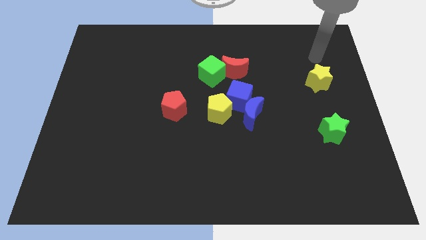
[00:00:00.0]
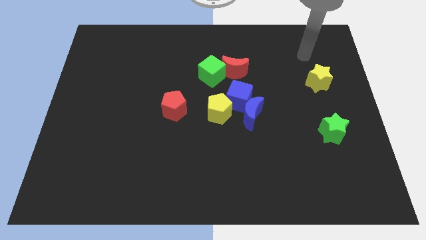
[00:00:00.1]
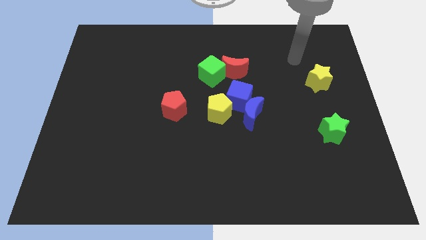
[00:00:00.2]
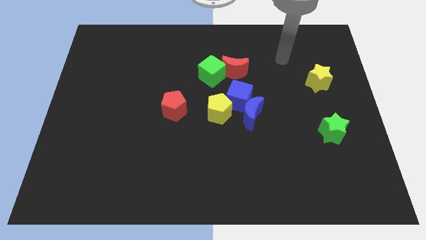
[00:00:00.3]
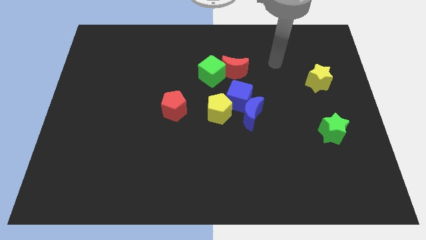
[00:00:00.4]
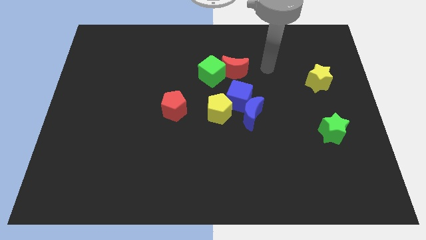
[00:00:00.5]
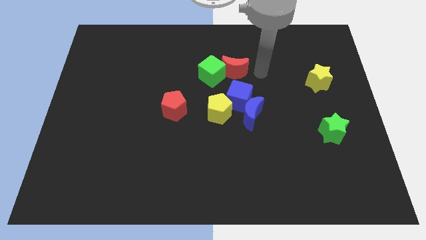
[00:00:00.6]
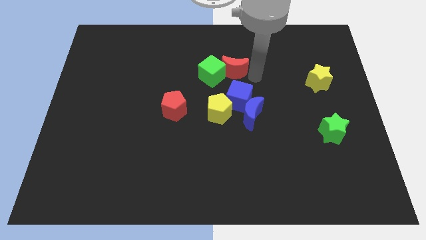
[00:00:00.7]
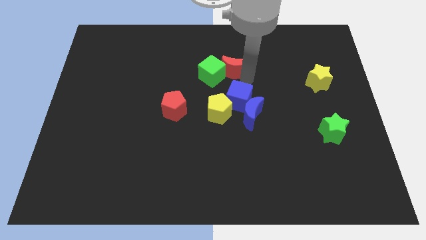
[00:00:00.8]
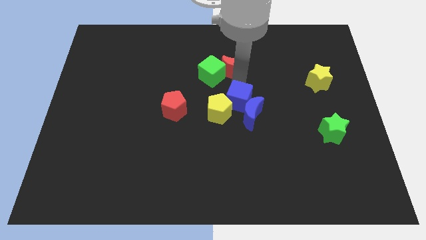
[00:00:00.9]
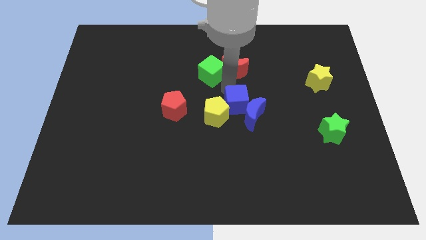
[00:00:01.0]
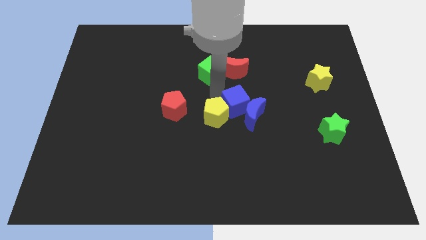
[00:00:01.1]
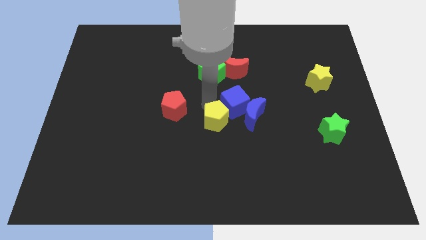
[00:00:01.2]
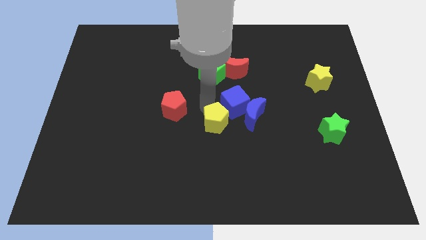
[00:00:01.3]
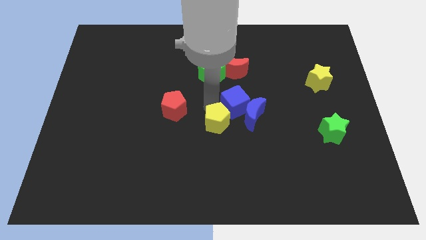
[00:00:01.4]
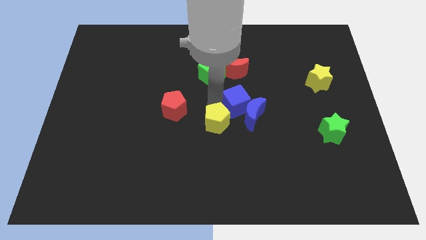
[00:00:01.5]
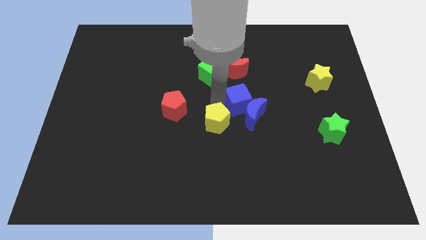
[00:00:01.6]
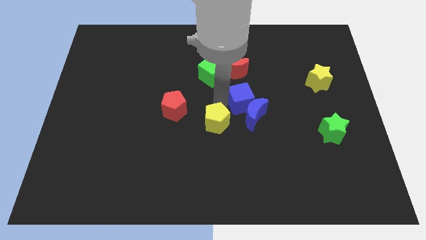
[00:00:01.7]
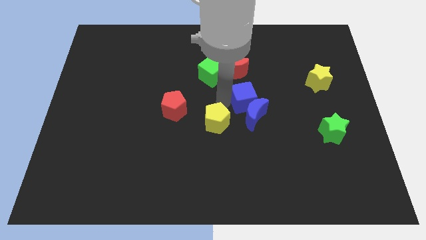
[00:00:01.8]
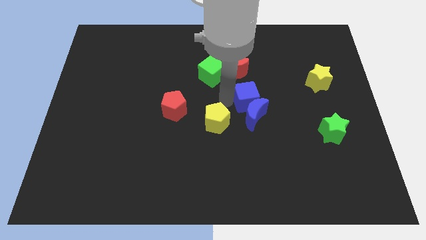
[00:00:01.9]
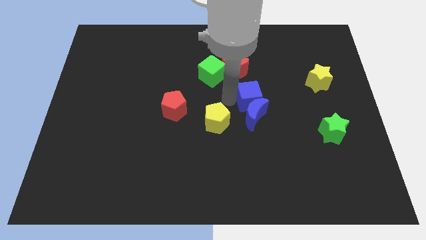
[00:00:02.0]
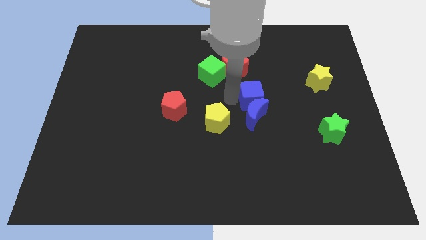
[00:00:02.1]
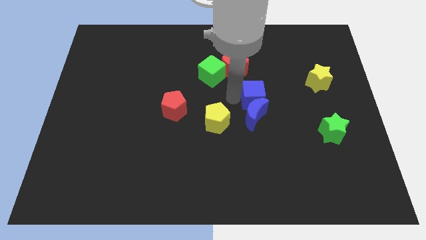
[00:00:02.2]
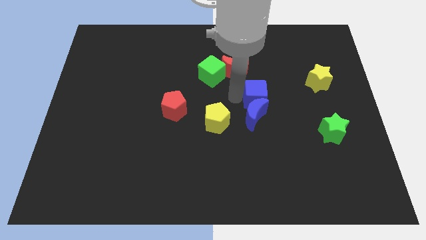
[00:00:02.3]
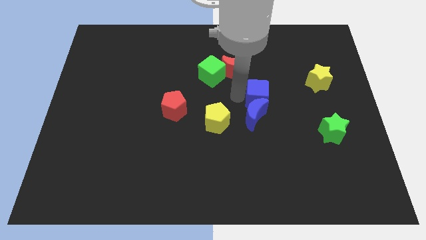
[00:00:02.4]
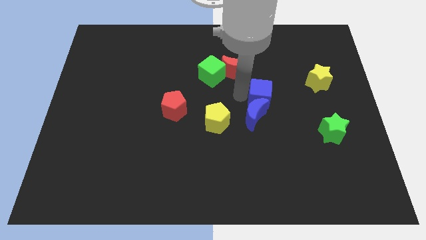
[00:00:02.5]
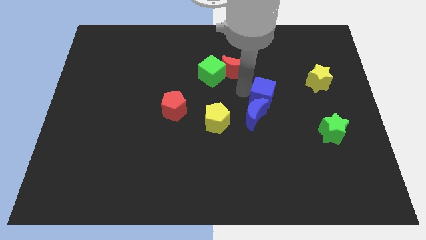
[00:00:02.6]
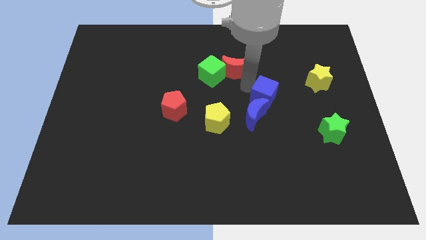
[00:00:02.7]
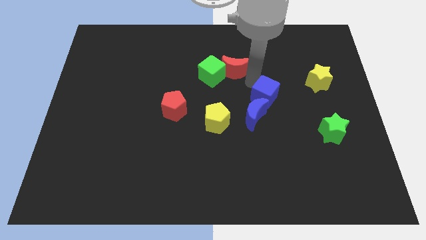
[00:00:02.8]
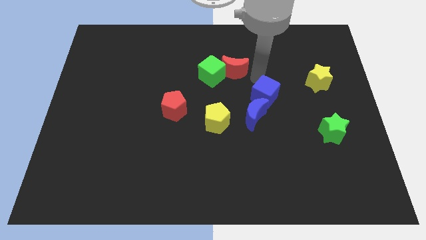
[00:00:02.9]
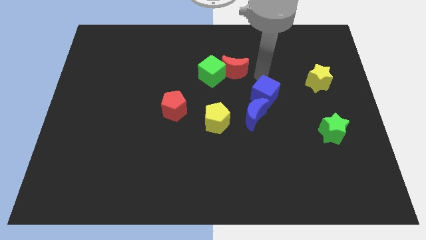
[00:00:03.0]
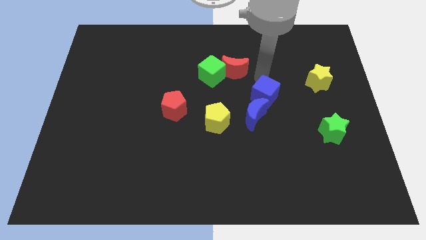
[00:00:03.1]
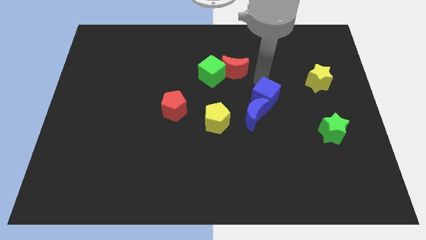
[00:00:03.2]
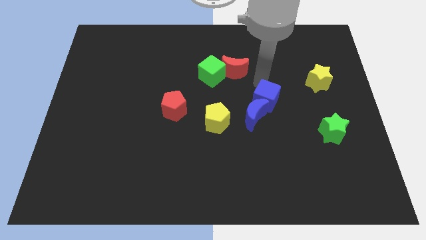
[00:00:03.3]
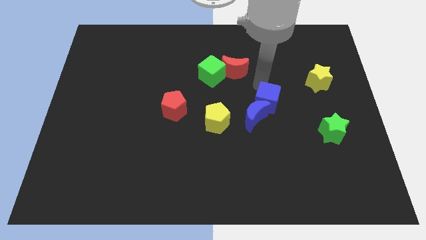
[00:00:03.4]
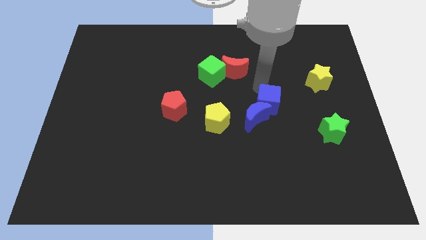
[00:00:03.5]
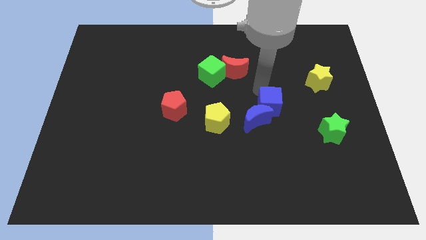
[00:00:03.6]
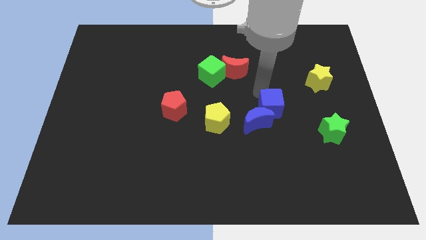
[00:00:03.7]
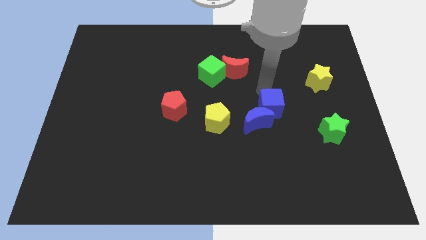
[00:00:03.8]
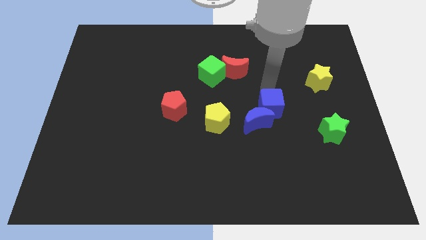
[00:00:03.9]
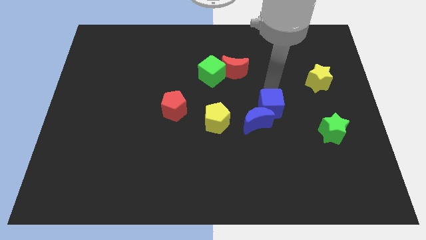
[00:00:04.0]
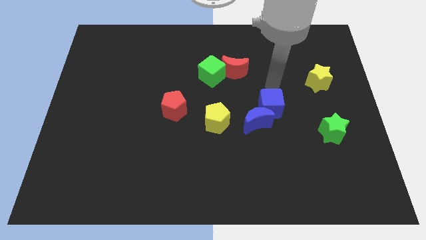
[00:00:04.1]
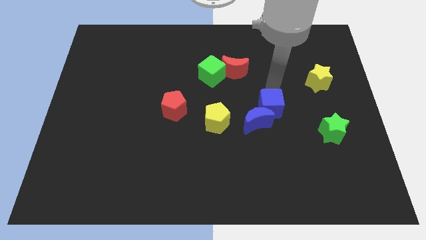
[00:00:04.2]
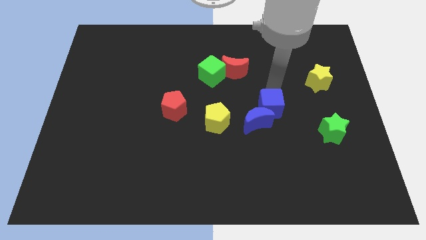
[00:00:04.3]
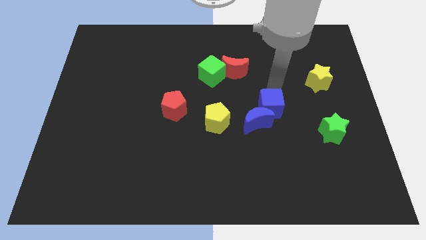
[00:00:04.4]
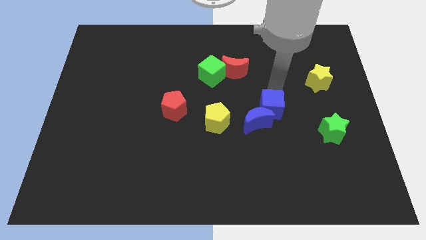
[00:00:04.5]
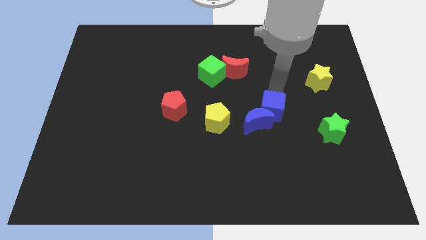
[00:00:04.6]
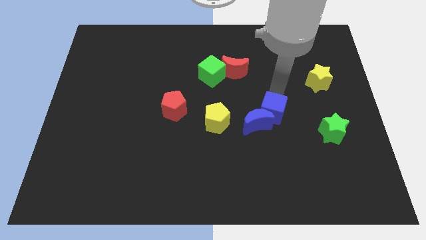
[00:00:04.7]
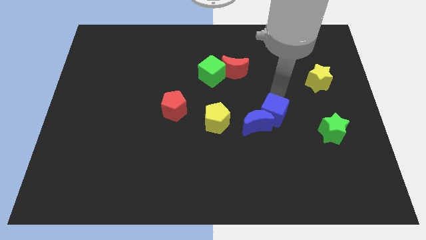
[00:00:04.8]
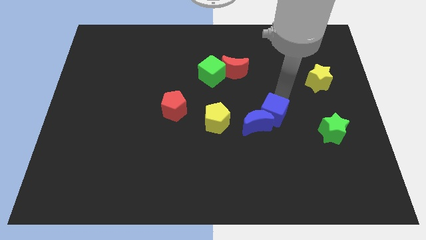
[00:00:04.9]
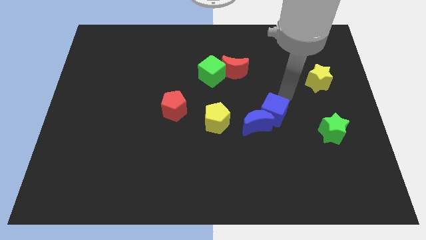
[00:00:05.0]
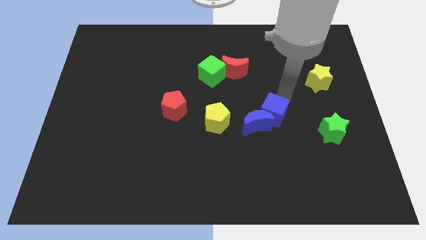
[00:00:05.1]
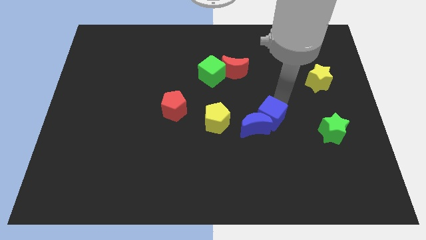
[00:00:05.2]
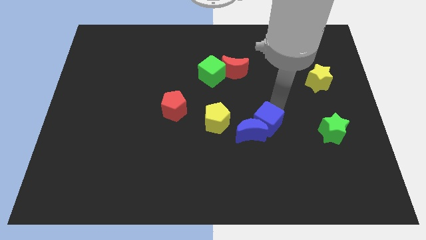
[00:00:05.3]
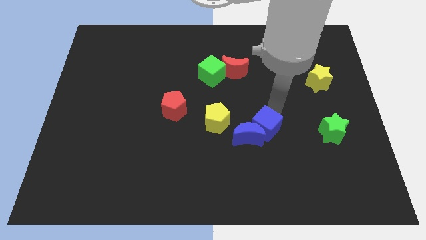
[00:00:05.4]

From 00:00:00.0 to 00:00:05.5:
slightly move the blue cube down

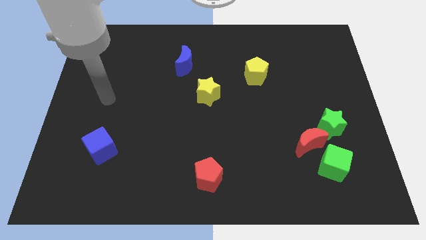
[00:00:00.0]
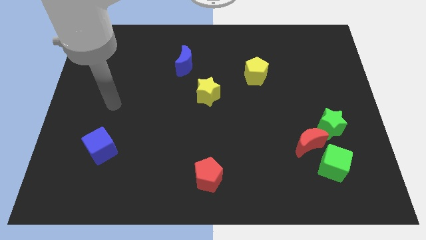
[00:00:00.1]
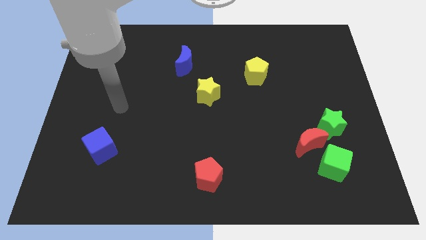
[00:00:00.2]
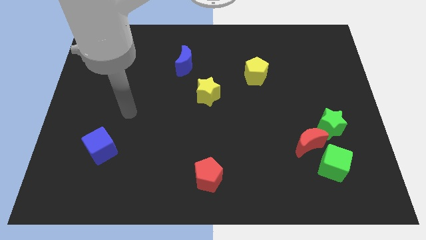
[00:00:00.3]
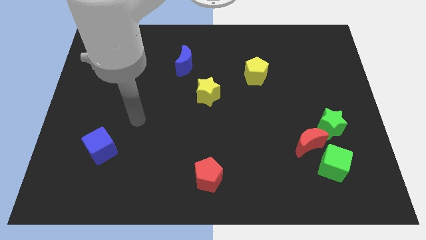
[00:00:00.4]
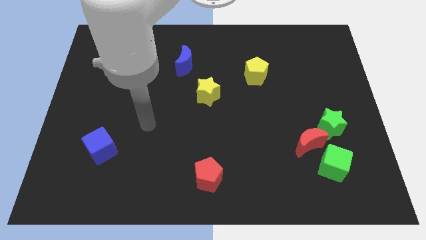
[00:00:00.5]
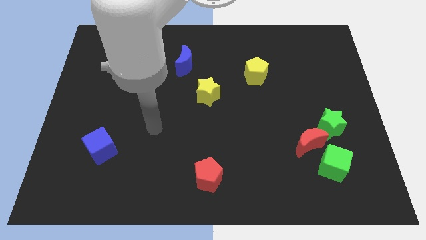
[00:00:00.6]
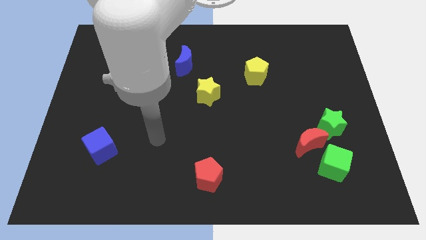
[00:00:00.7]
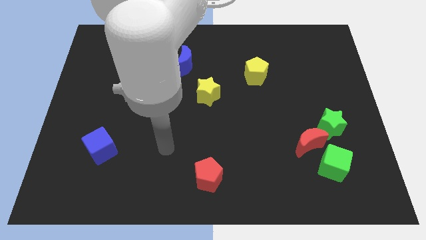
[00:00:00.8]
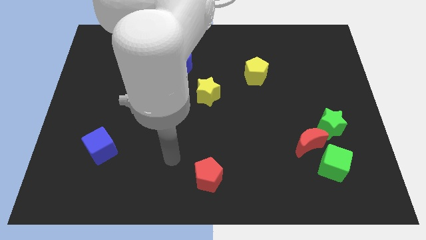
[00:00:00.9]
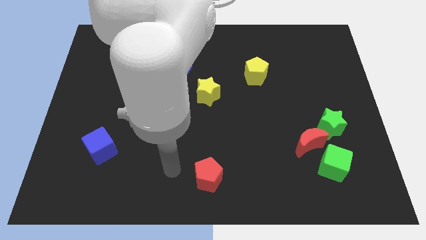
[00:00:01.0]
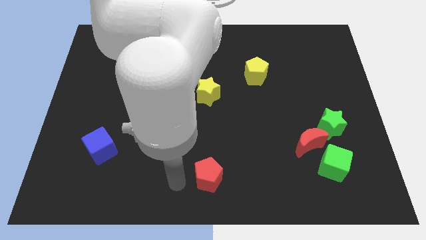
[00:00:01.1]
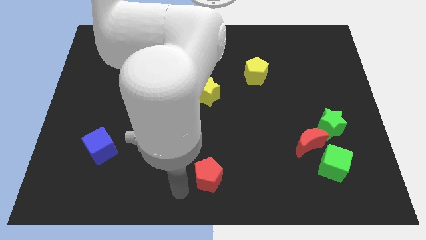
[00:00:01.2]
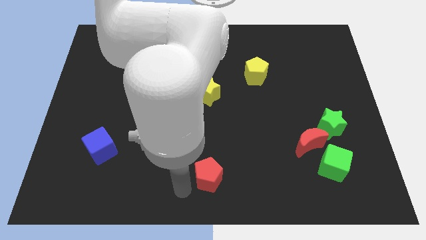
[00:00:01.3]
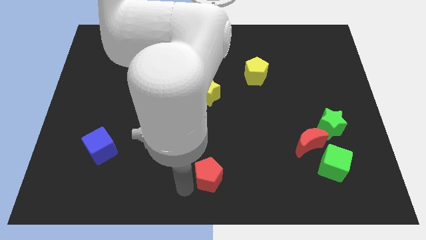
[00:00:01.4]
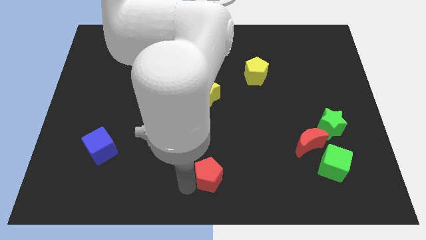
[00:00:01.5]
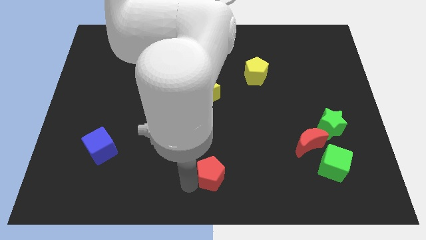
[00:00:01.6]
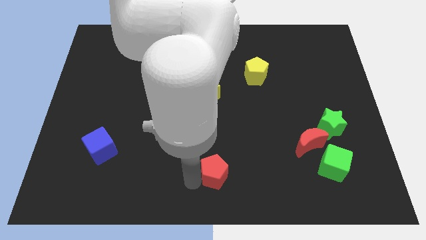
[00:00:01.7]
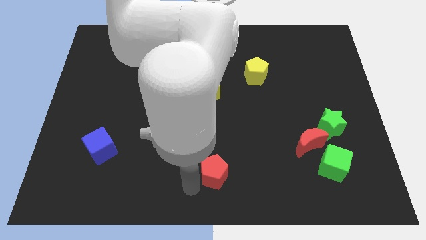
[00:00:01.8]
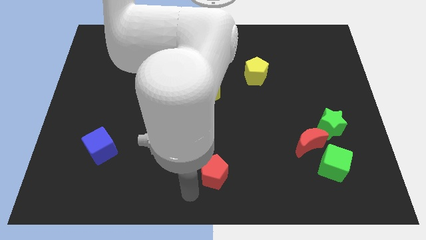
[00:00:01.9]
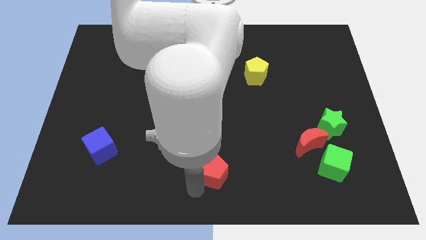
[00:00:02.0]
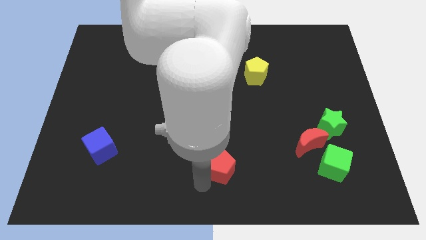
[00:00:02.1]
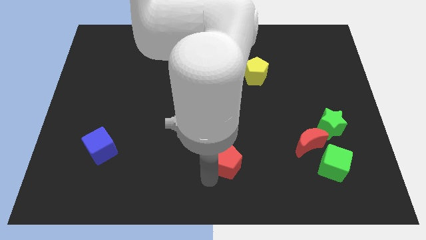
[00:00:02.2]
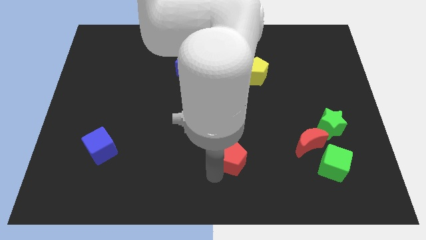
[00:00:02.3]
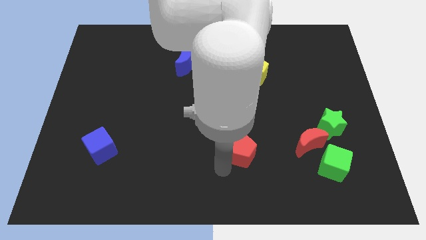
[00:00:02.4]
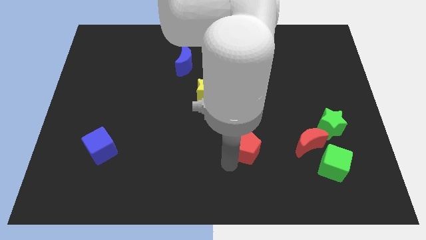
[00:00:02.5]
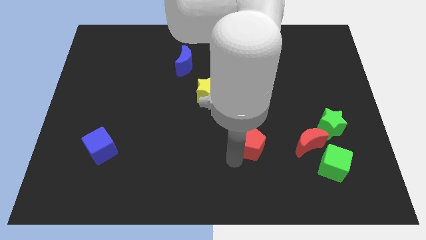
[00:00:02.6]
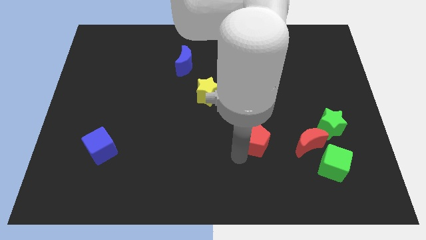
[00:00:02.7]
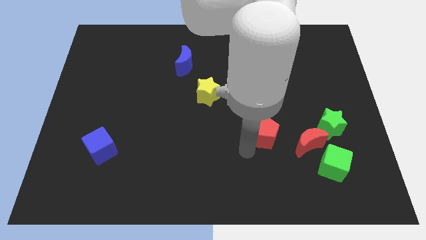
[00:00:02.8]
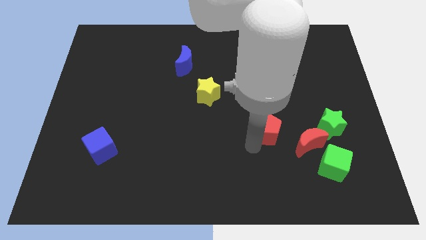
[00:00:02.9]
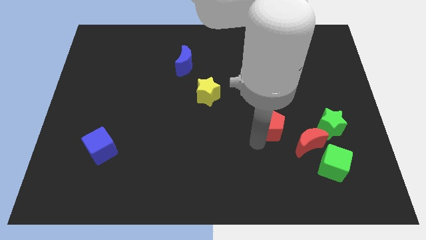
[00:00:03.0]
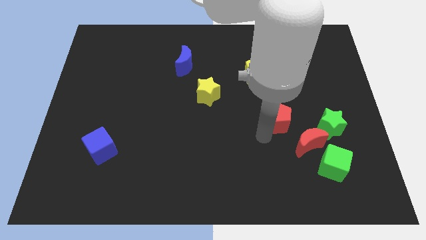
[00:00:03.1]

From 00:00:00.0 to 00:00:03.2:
slide the red pentagon upwards and to the right
